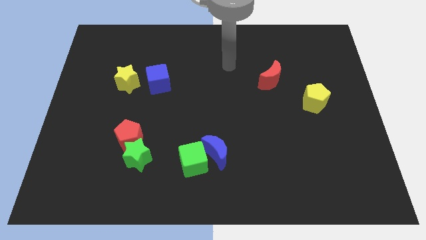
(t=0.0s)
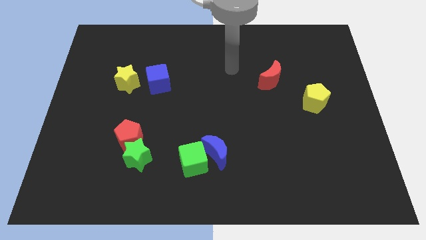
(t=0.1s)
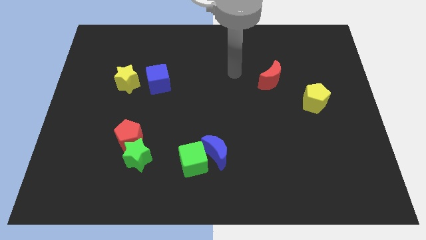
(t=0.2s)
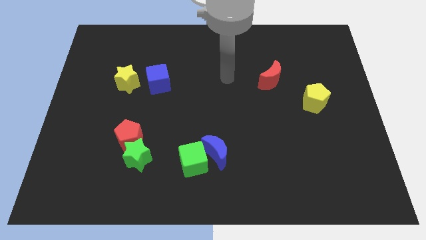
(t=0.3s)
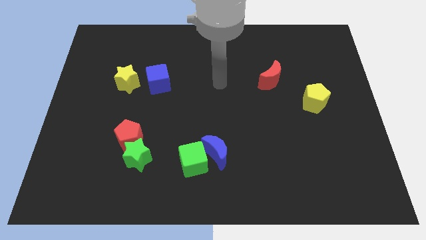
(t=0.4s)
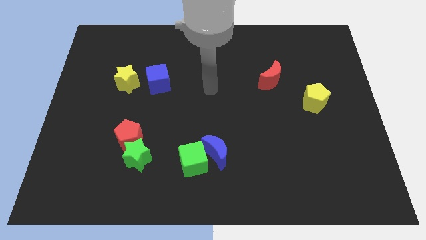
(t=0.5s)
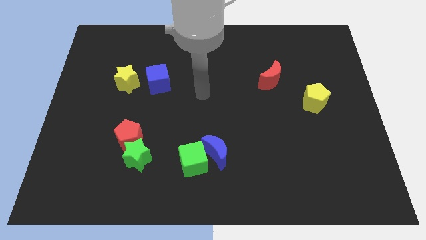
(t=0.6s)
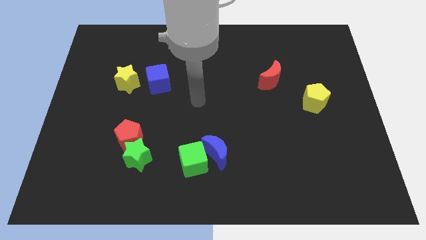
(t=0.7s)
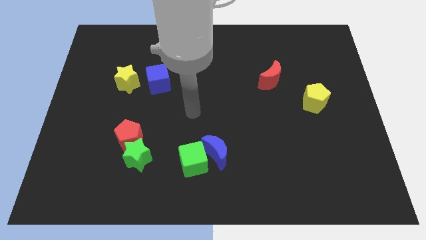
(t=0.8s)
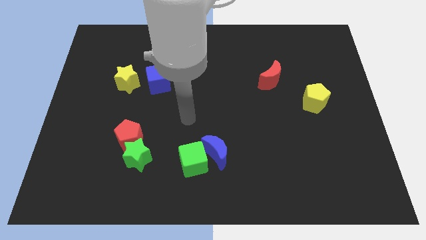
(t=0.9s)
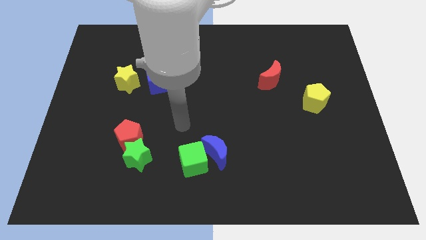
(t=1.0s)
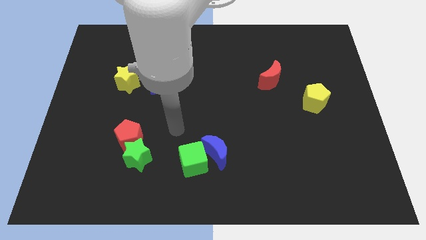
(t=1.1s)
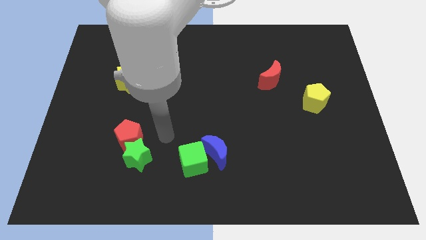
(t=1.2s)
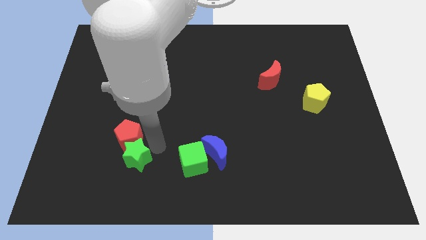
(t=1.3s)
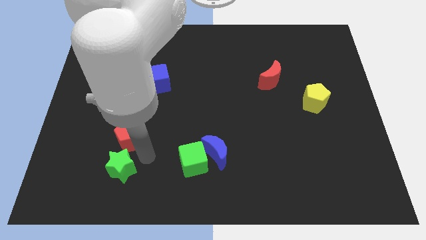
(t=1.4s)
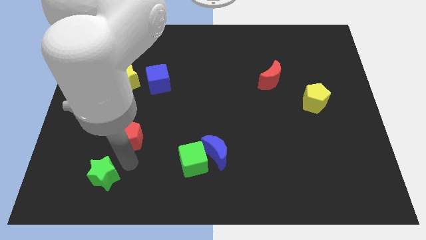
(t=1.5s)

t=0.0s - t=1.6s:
pull the red pentagon apart from the green star

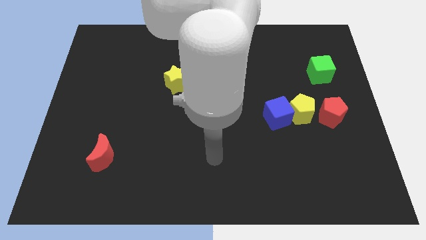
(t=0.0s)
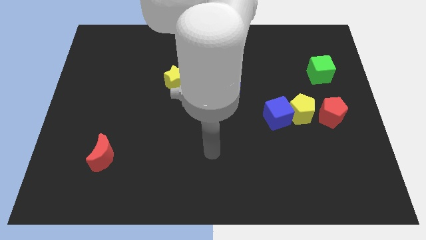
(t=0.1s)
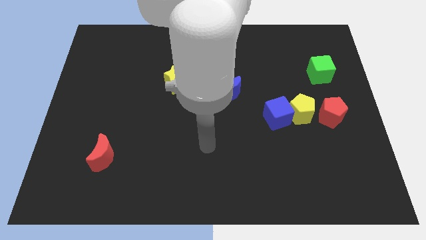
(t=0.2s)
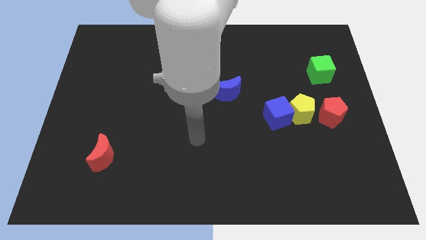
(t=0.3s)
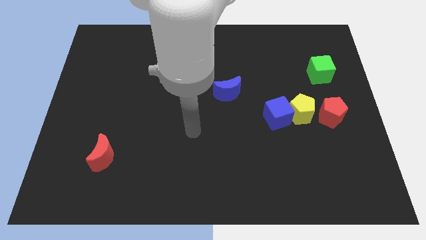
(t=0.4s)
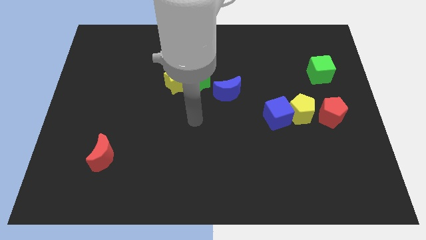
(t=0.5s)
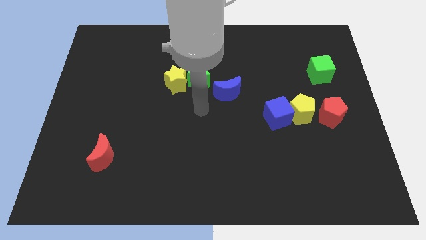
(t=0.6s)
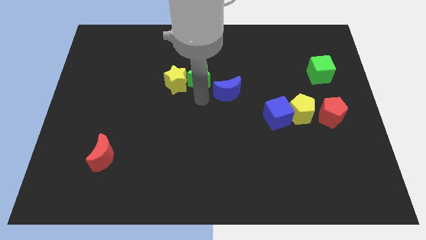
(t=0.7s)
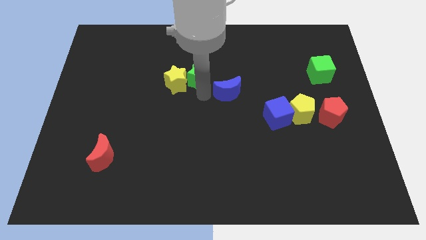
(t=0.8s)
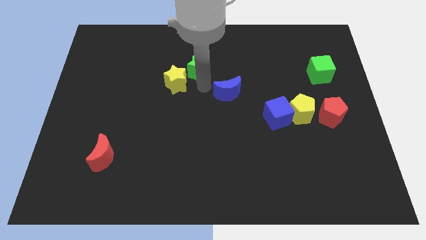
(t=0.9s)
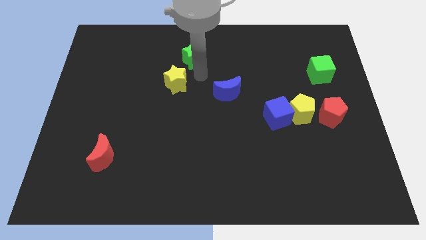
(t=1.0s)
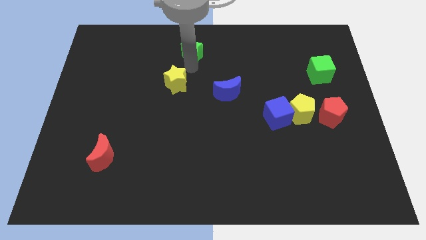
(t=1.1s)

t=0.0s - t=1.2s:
pull the yellow star apart from the green star

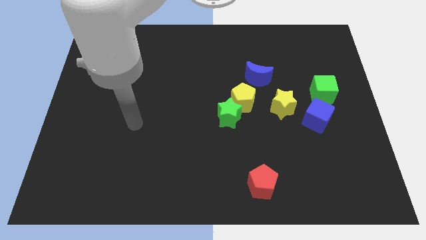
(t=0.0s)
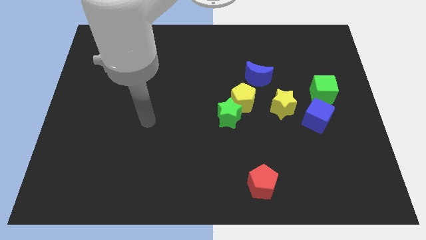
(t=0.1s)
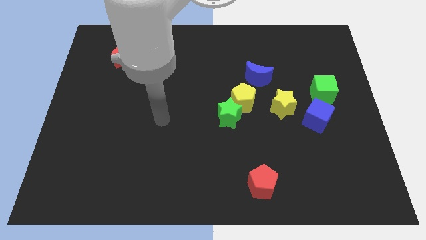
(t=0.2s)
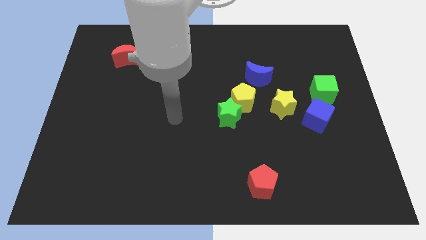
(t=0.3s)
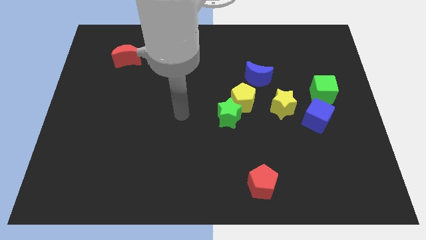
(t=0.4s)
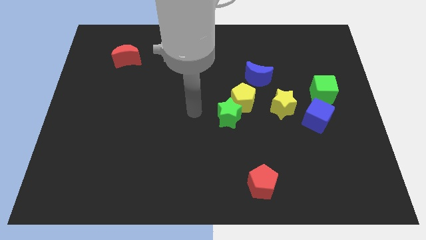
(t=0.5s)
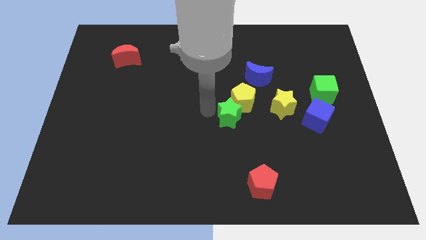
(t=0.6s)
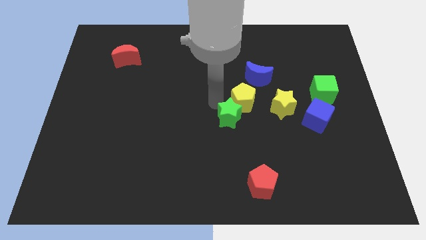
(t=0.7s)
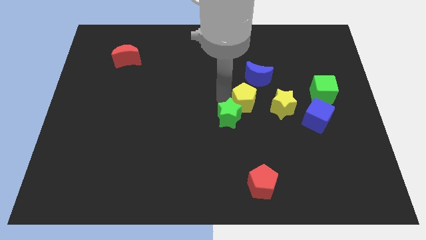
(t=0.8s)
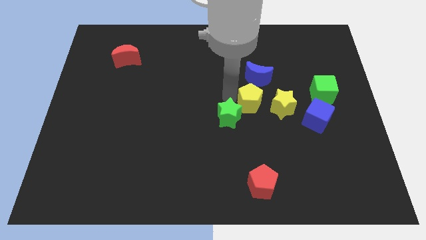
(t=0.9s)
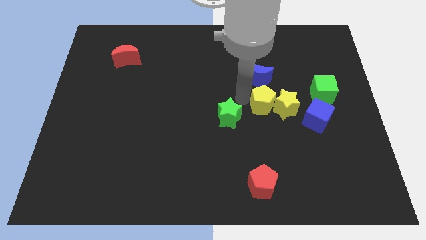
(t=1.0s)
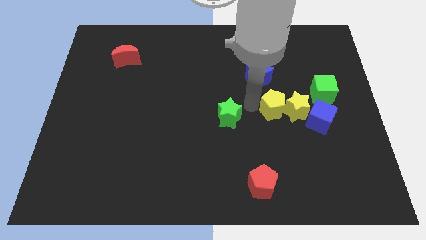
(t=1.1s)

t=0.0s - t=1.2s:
move the green star away from the yellow pentagon

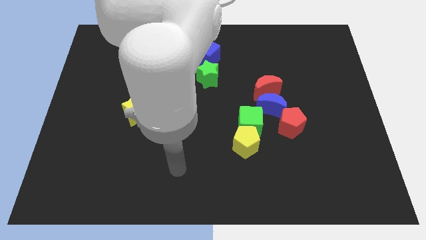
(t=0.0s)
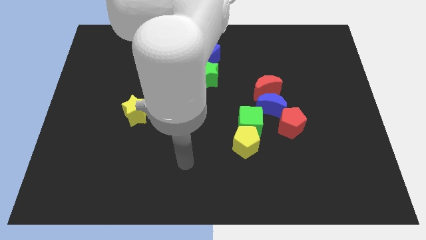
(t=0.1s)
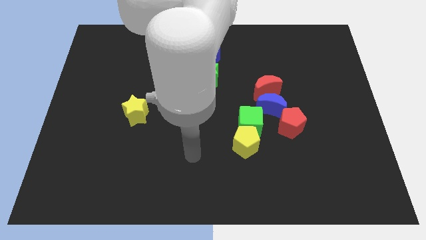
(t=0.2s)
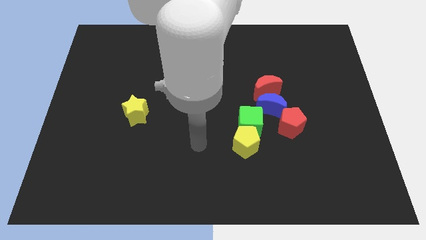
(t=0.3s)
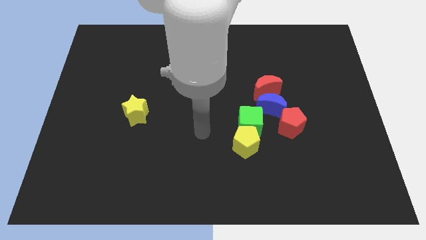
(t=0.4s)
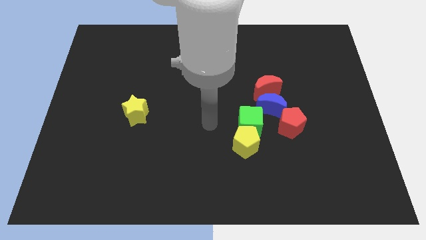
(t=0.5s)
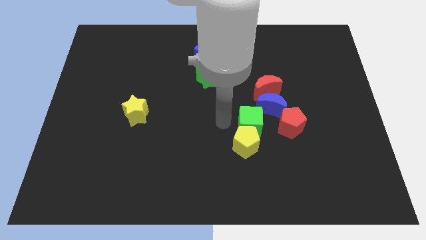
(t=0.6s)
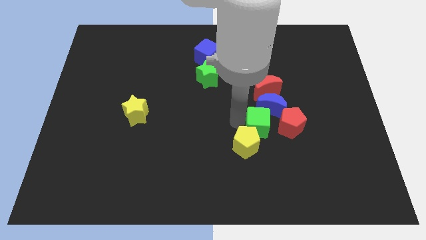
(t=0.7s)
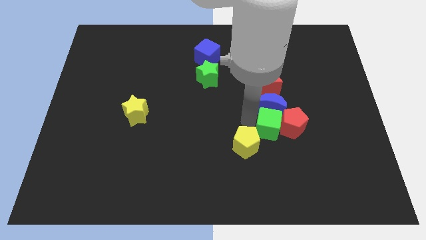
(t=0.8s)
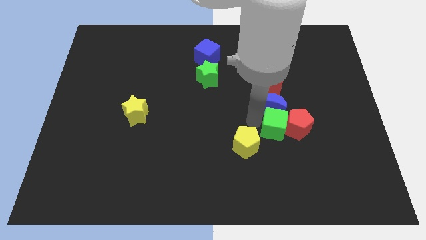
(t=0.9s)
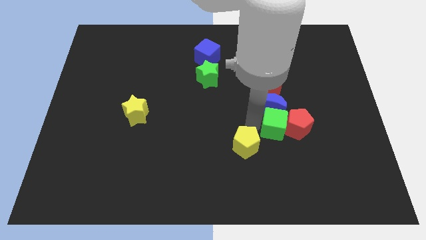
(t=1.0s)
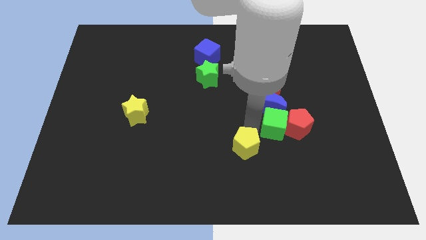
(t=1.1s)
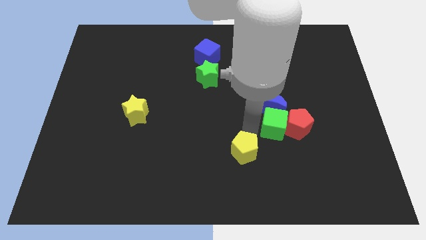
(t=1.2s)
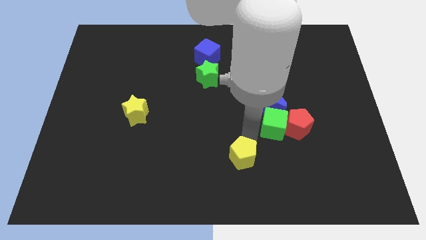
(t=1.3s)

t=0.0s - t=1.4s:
separate the yellow pentagon from the green cube

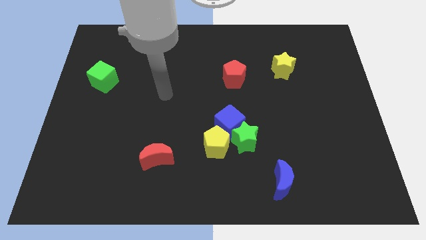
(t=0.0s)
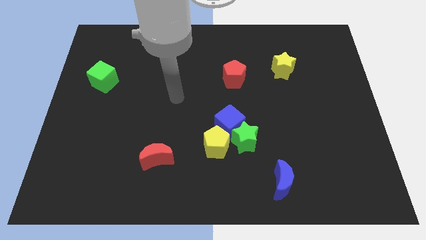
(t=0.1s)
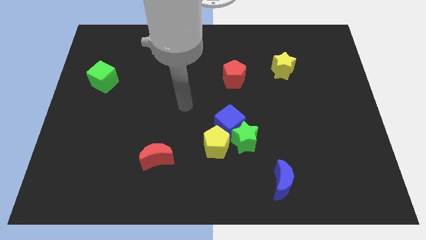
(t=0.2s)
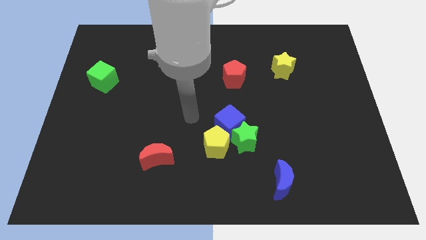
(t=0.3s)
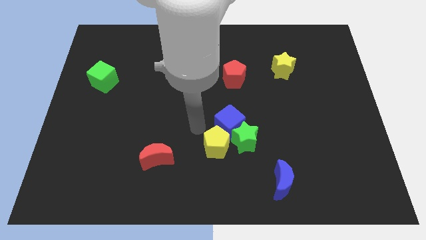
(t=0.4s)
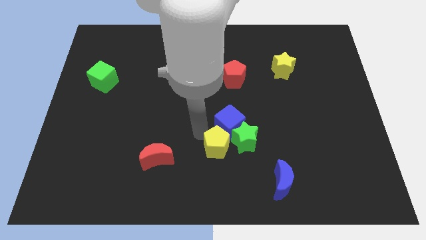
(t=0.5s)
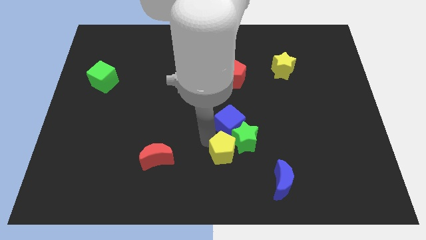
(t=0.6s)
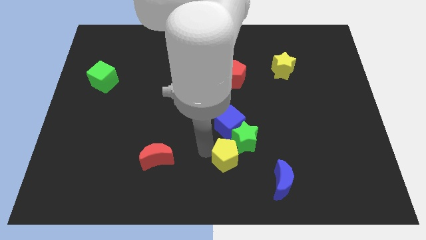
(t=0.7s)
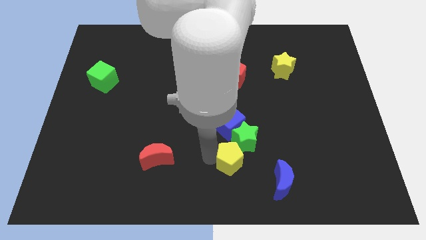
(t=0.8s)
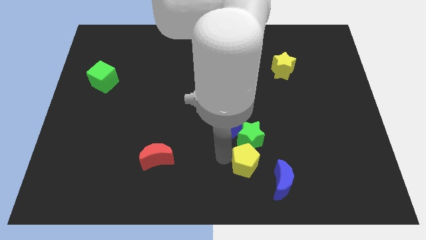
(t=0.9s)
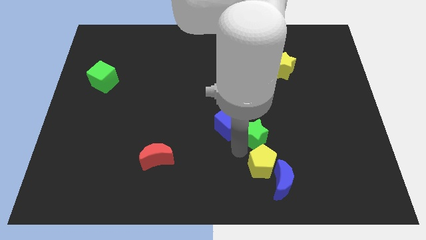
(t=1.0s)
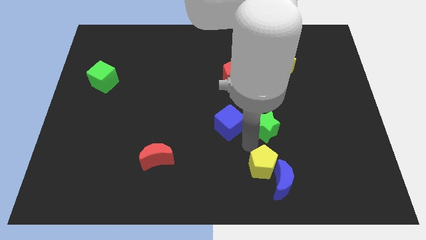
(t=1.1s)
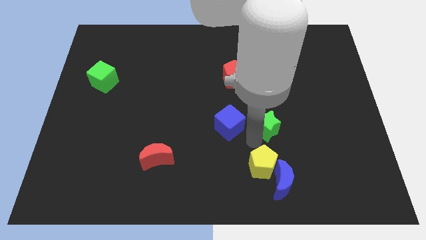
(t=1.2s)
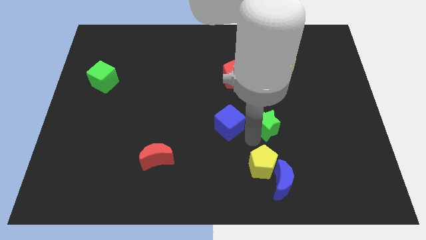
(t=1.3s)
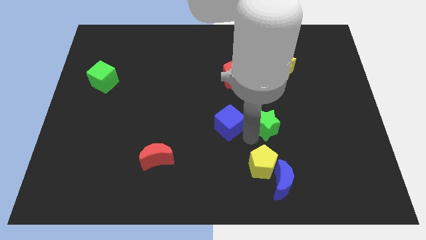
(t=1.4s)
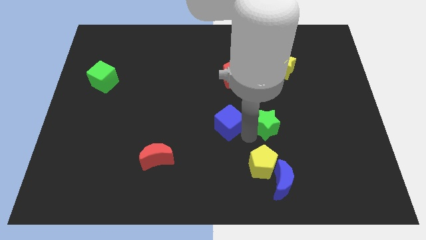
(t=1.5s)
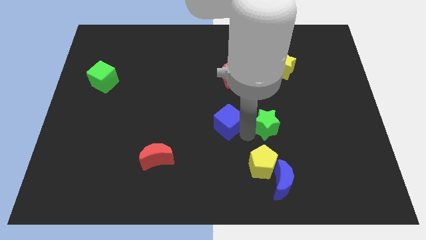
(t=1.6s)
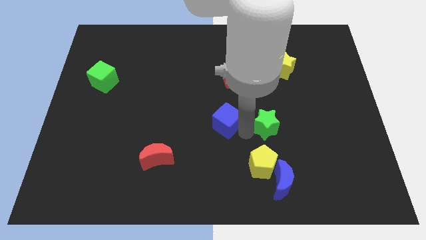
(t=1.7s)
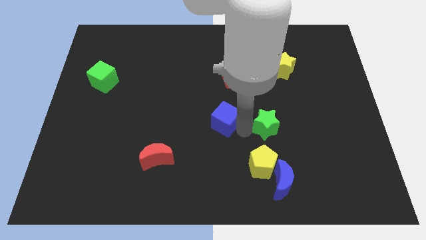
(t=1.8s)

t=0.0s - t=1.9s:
pull the blue cube apart from the green star and yellow pentagon

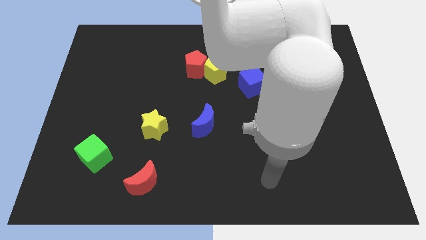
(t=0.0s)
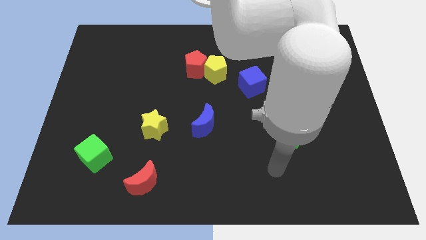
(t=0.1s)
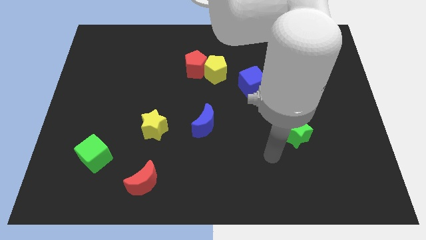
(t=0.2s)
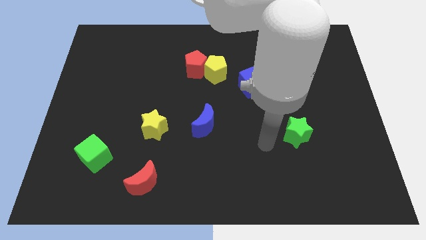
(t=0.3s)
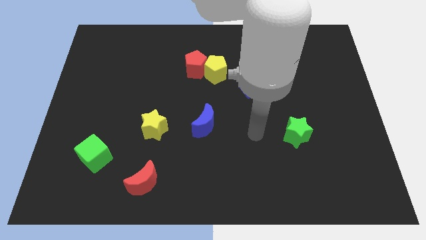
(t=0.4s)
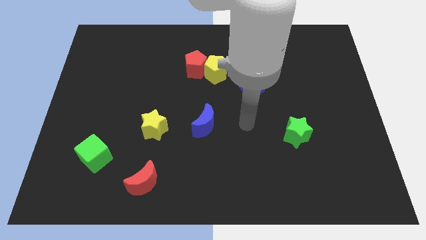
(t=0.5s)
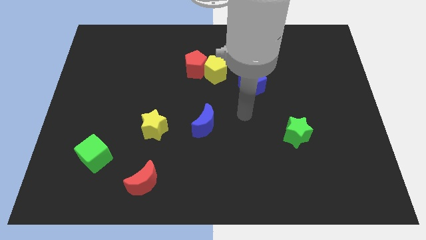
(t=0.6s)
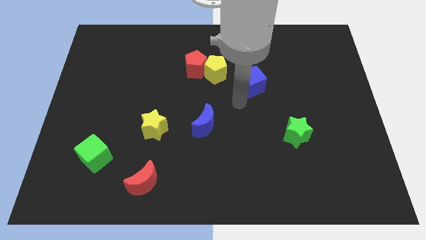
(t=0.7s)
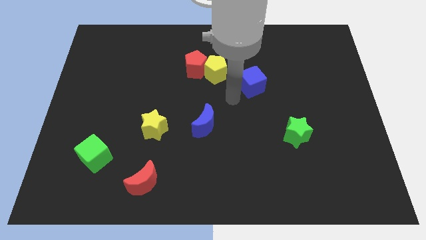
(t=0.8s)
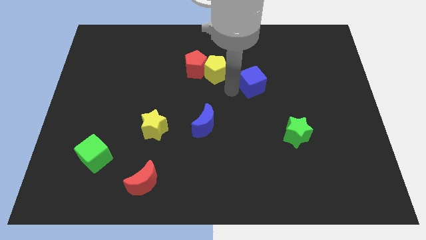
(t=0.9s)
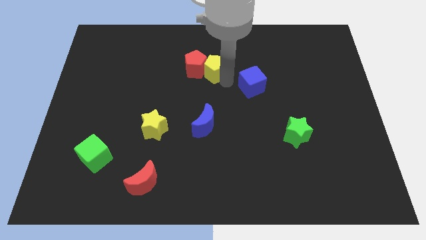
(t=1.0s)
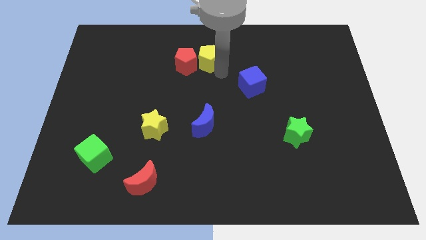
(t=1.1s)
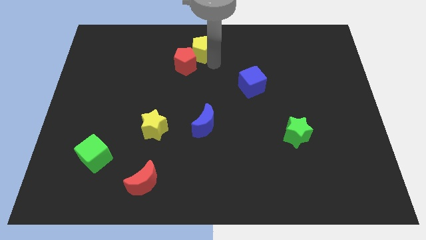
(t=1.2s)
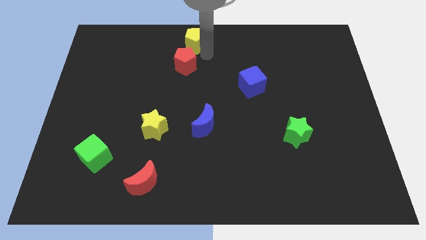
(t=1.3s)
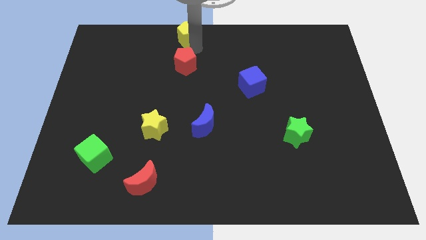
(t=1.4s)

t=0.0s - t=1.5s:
pull the red pentagon apart from the yellow pentagon

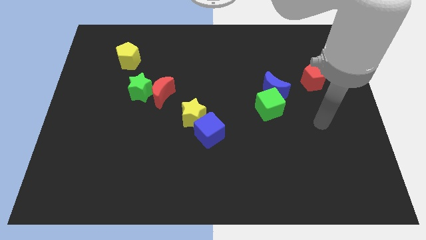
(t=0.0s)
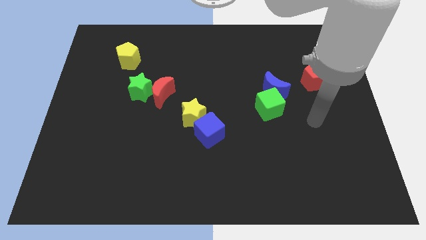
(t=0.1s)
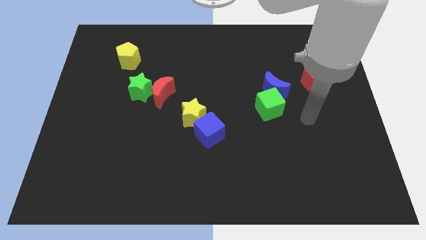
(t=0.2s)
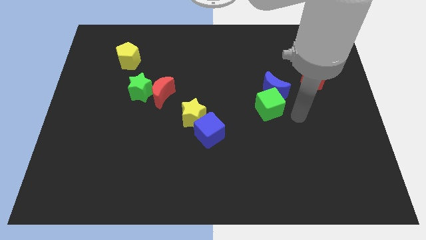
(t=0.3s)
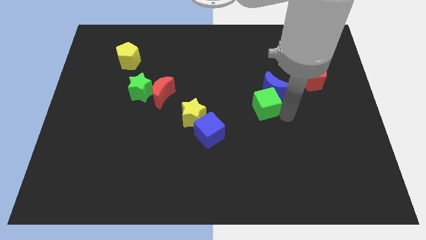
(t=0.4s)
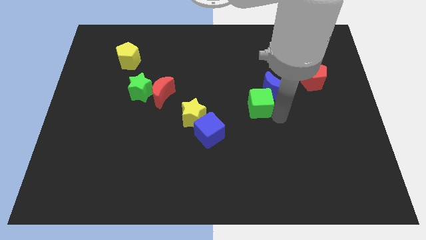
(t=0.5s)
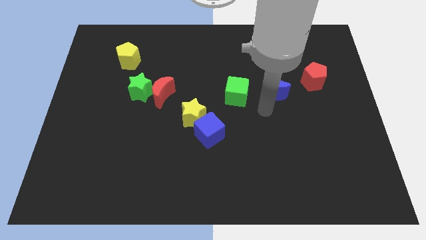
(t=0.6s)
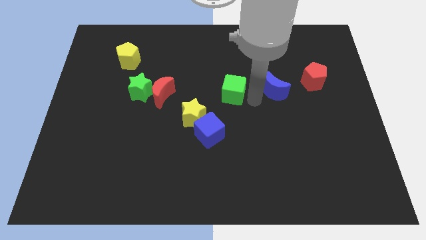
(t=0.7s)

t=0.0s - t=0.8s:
pull the blue moon apart from the green cube
